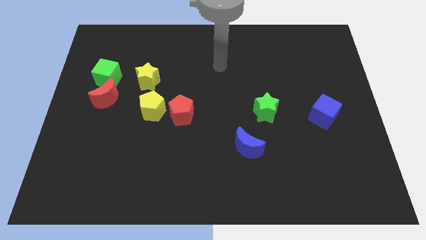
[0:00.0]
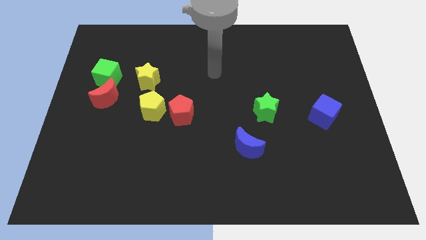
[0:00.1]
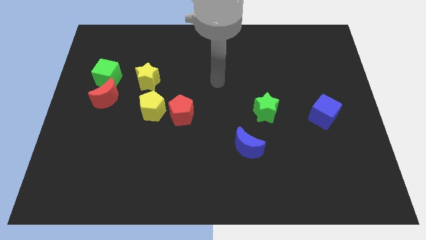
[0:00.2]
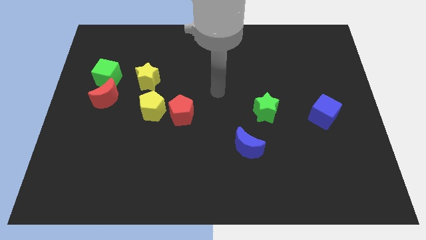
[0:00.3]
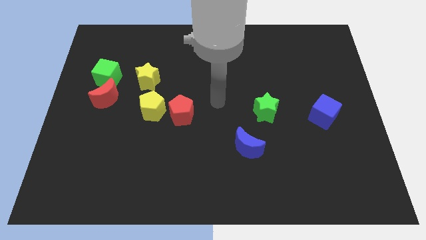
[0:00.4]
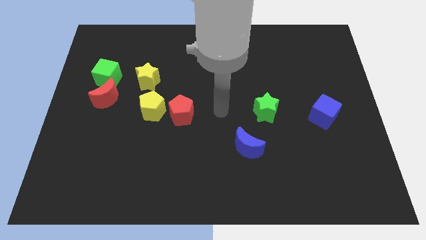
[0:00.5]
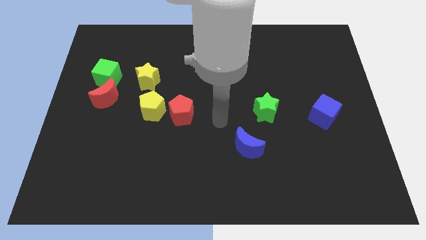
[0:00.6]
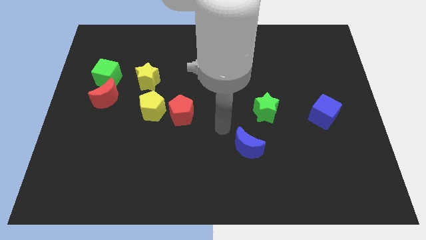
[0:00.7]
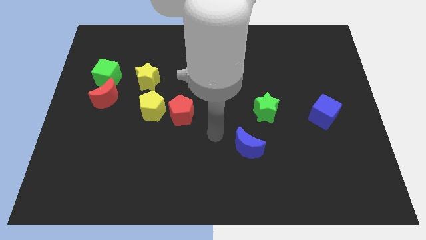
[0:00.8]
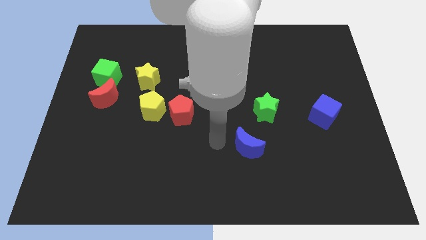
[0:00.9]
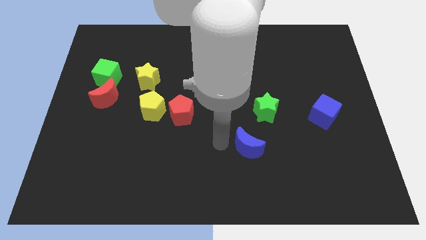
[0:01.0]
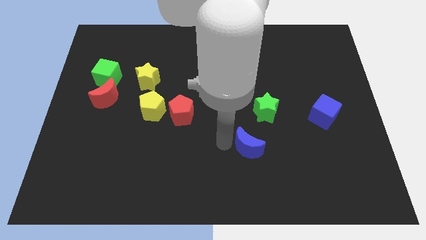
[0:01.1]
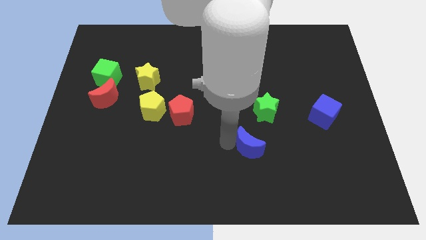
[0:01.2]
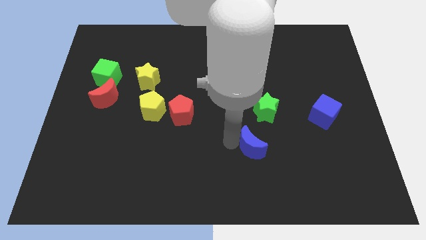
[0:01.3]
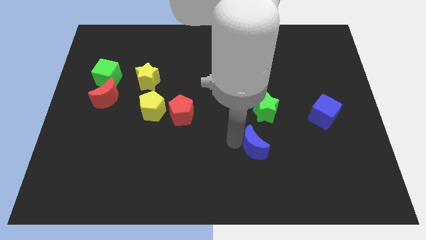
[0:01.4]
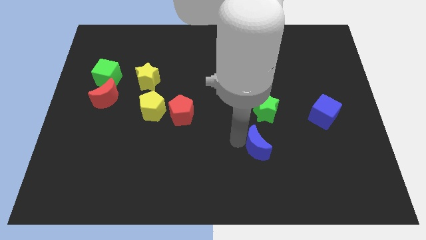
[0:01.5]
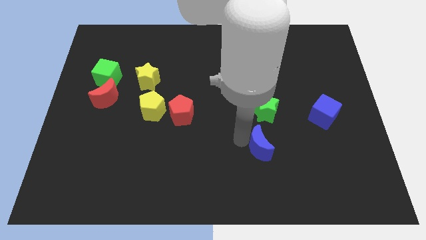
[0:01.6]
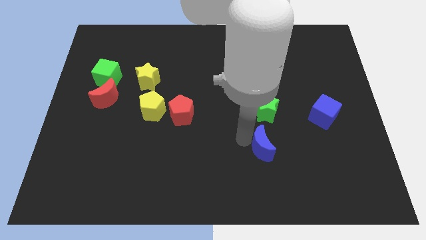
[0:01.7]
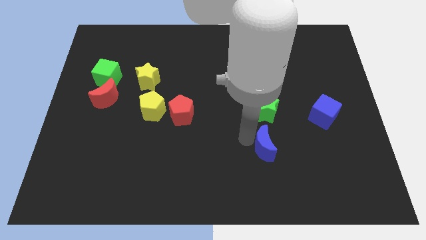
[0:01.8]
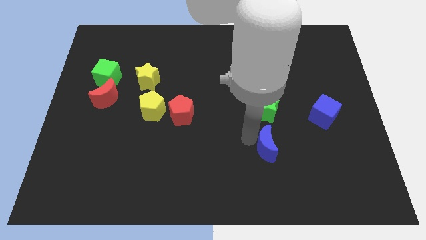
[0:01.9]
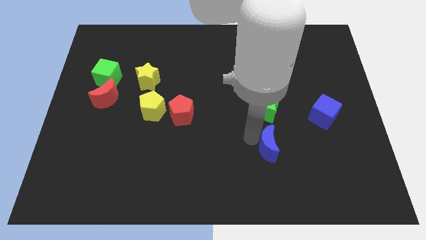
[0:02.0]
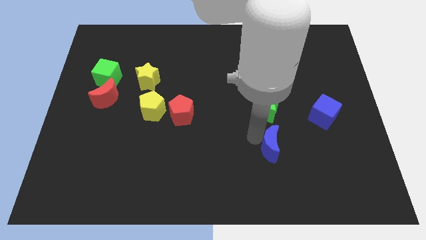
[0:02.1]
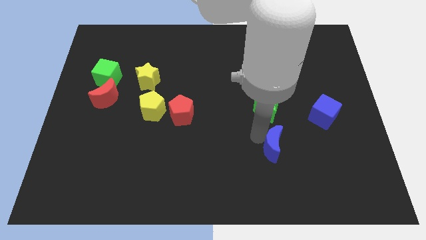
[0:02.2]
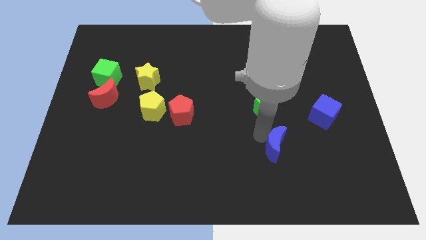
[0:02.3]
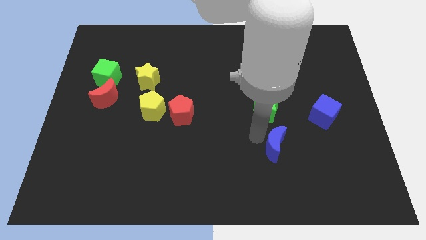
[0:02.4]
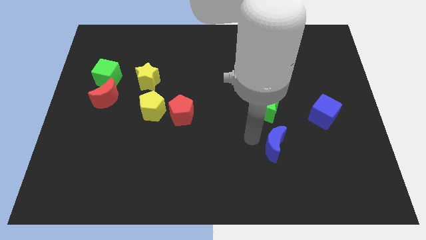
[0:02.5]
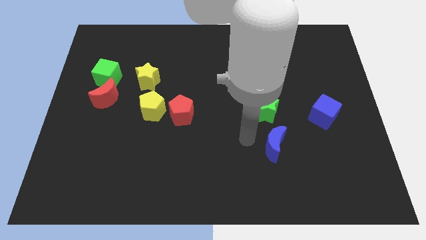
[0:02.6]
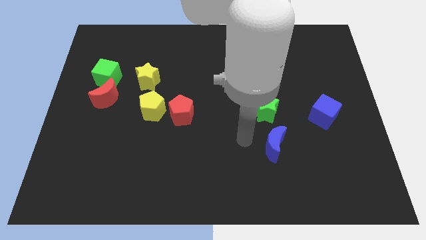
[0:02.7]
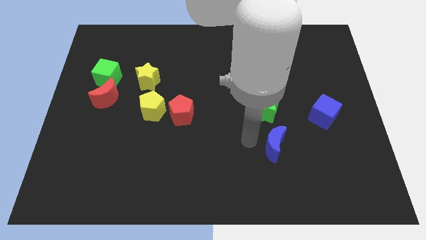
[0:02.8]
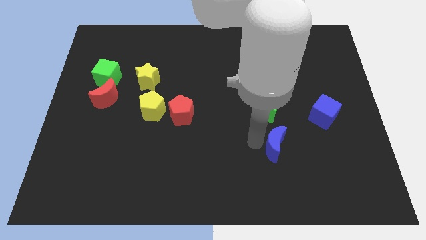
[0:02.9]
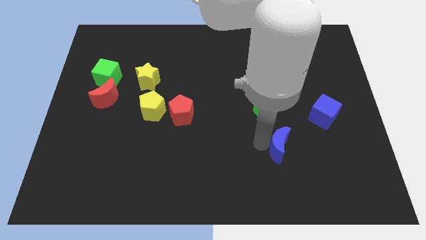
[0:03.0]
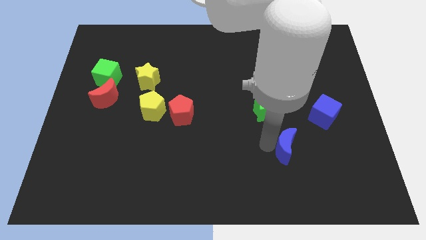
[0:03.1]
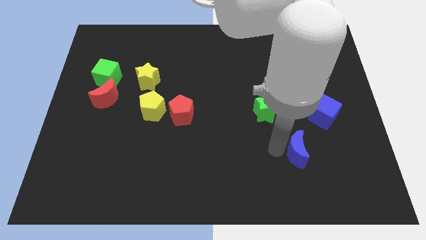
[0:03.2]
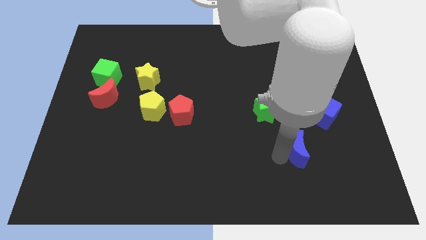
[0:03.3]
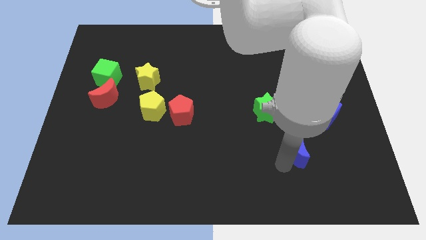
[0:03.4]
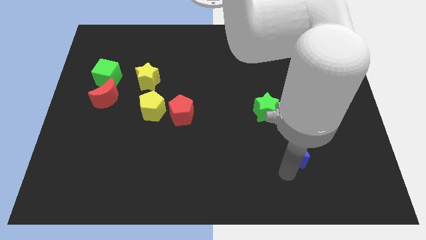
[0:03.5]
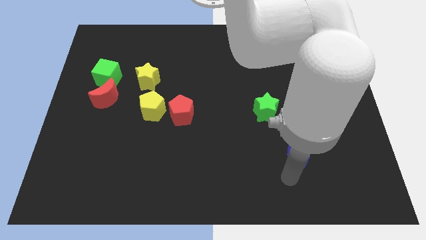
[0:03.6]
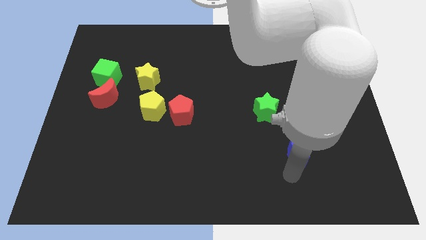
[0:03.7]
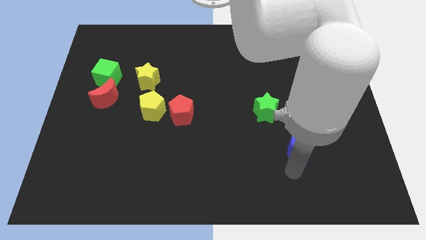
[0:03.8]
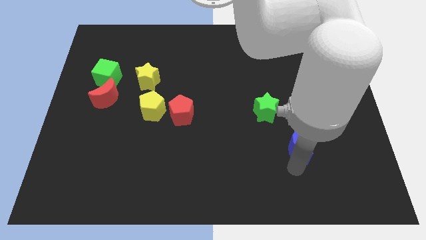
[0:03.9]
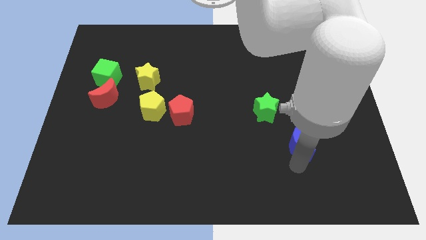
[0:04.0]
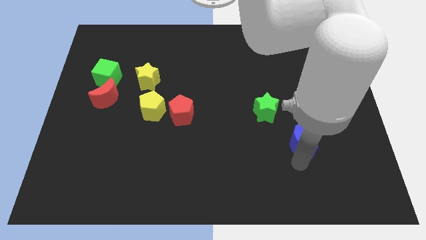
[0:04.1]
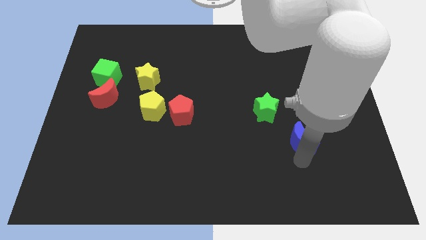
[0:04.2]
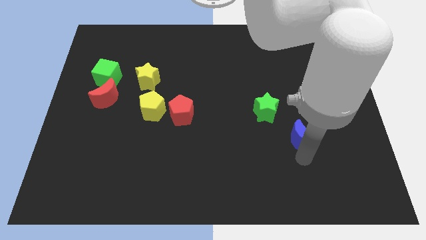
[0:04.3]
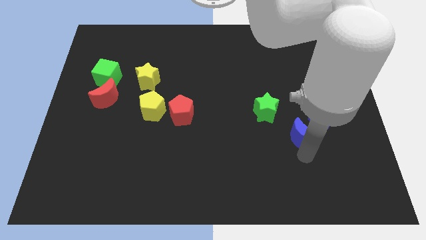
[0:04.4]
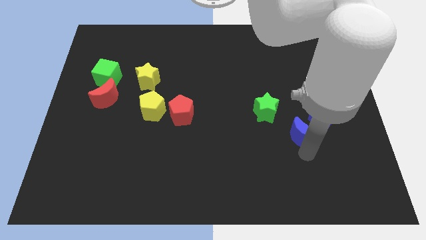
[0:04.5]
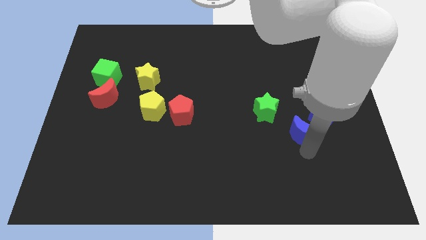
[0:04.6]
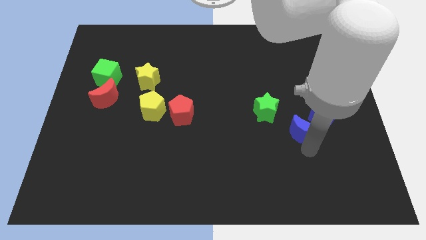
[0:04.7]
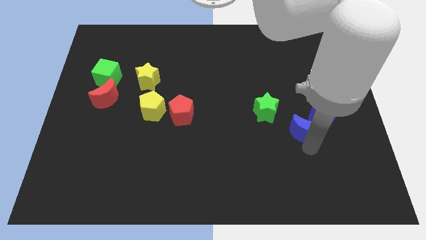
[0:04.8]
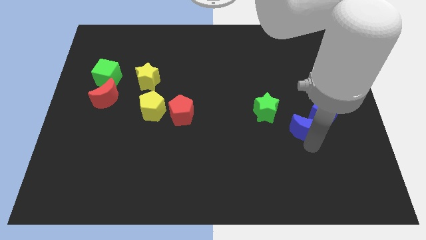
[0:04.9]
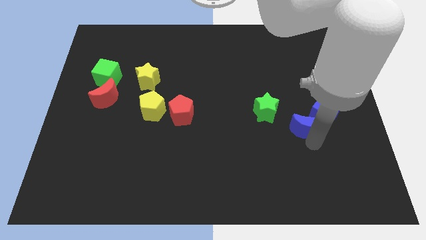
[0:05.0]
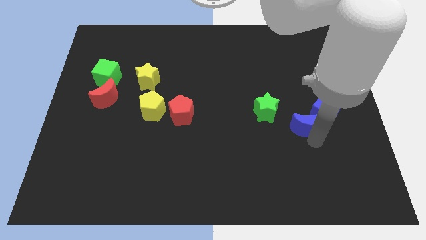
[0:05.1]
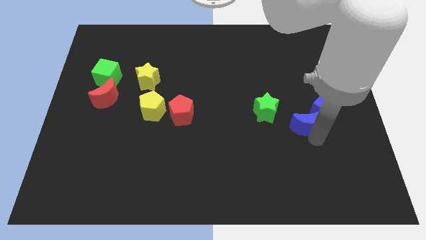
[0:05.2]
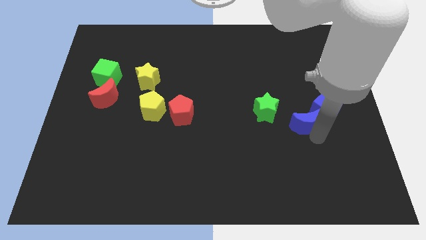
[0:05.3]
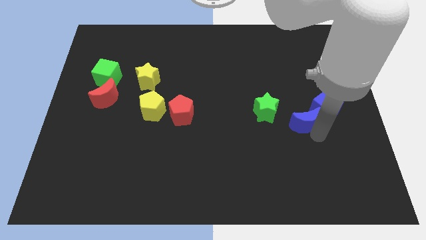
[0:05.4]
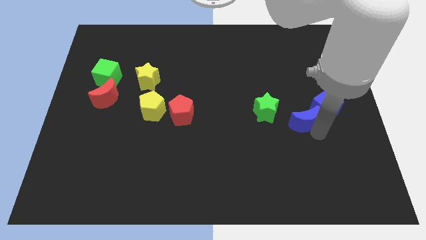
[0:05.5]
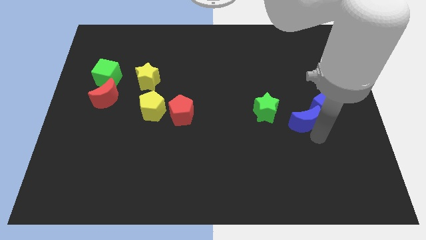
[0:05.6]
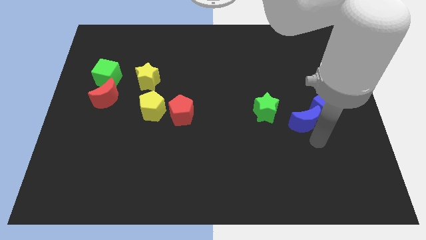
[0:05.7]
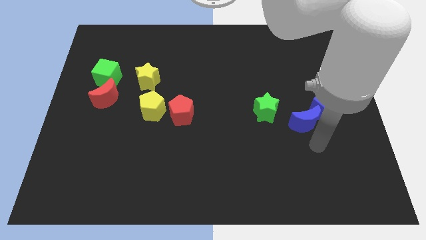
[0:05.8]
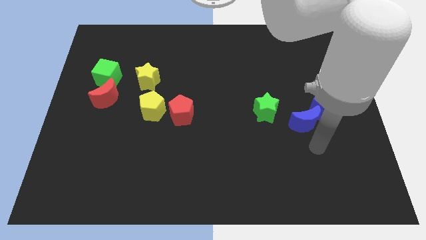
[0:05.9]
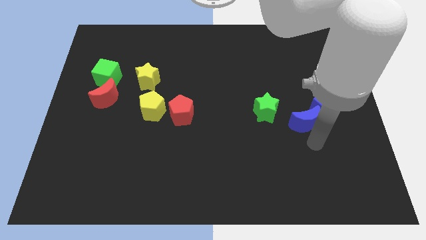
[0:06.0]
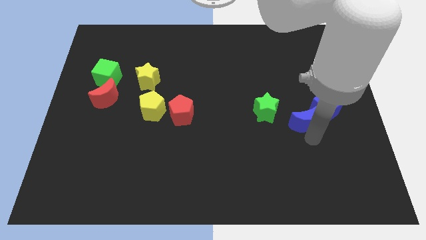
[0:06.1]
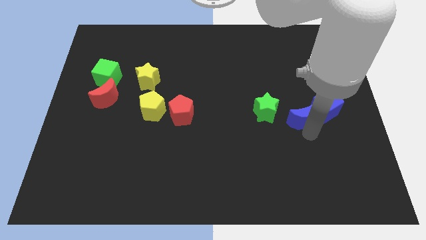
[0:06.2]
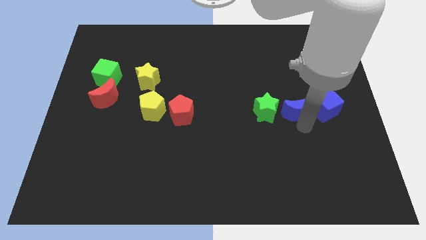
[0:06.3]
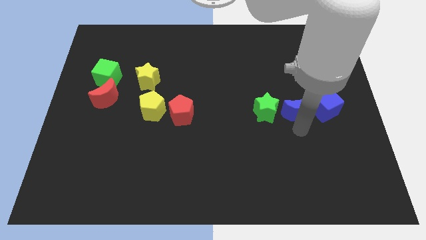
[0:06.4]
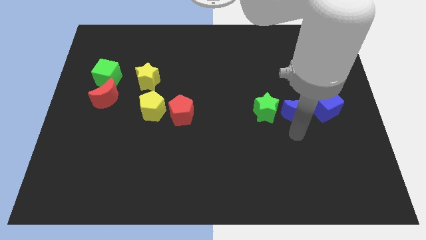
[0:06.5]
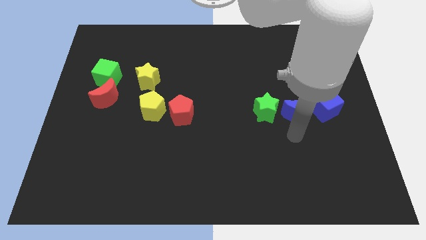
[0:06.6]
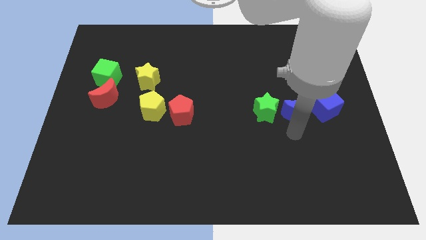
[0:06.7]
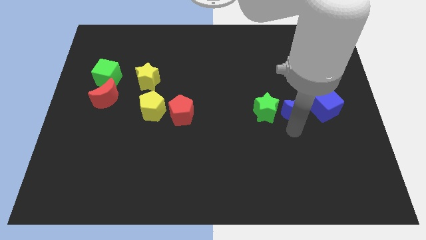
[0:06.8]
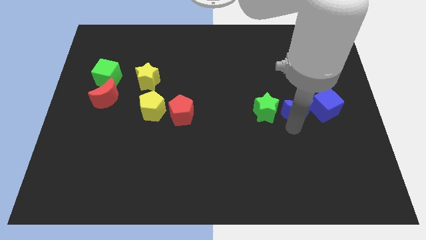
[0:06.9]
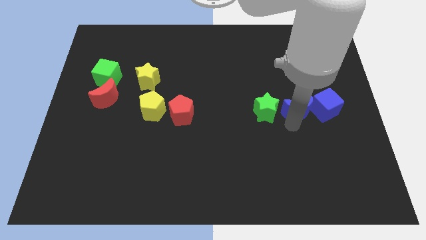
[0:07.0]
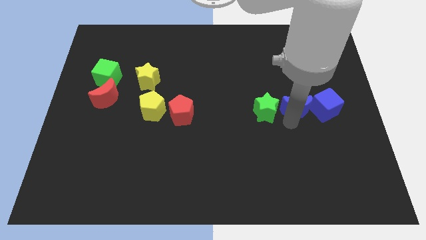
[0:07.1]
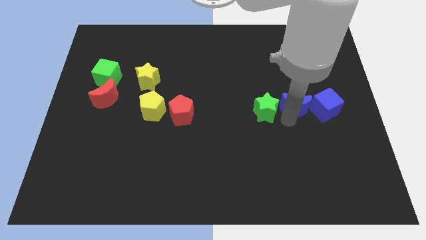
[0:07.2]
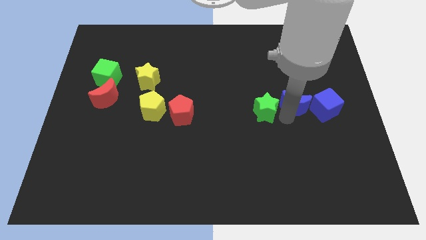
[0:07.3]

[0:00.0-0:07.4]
put the blue moon to the top left side of the blue cube
